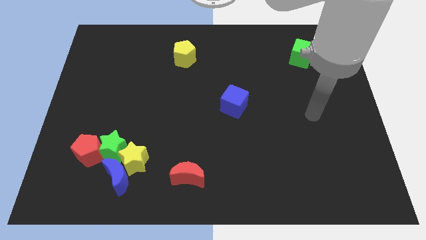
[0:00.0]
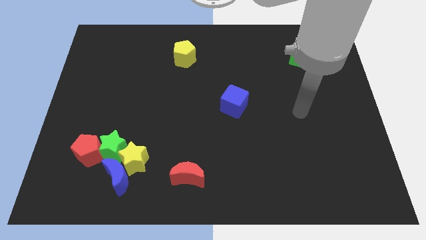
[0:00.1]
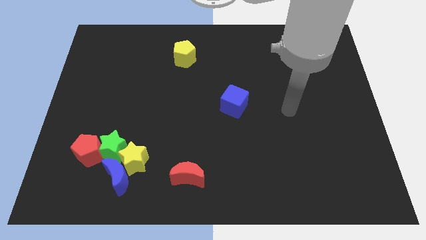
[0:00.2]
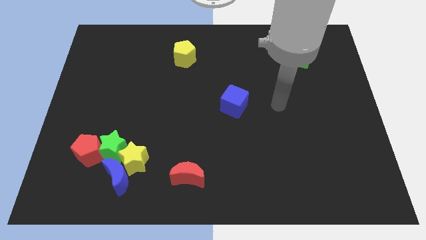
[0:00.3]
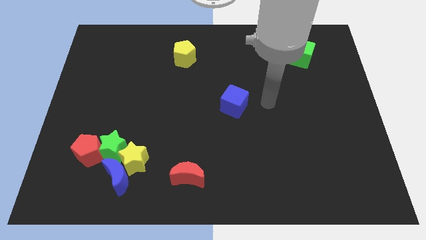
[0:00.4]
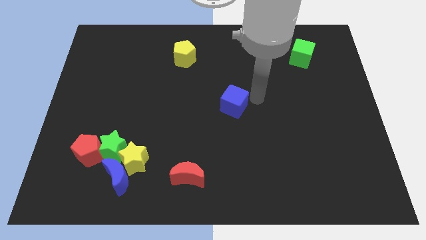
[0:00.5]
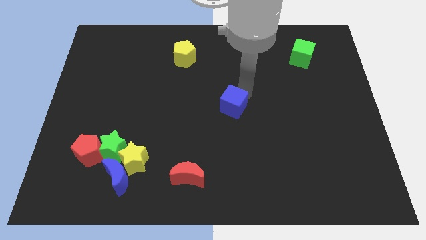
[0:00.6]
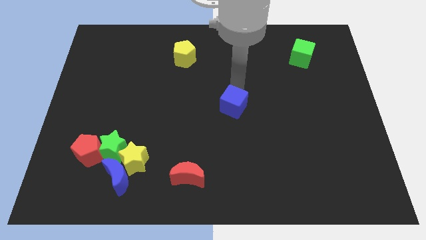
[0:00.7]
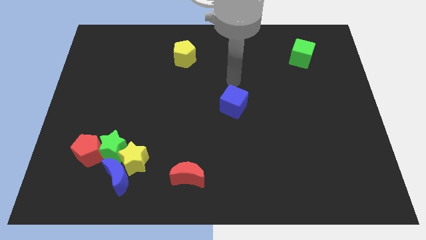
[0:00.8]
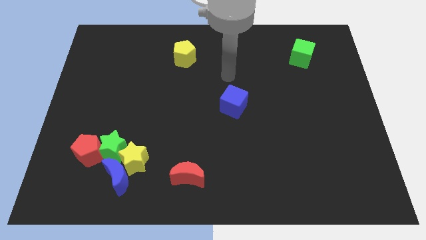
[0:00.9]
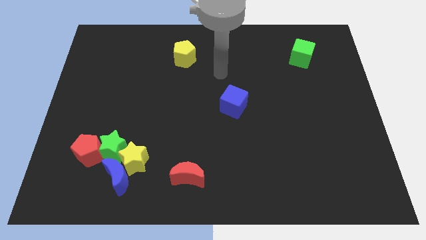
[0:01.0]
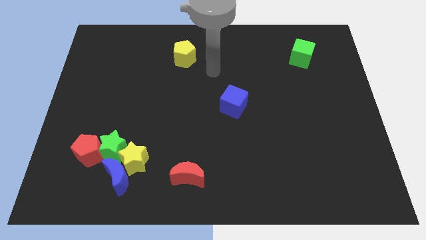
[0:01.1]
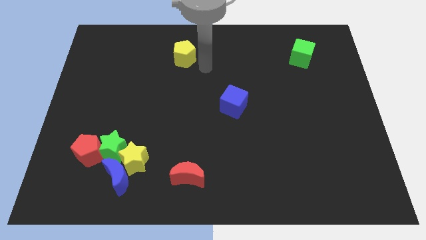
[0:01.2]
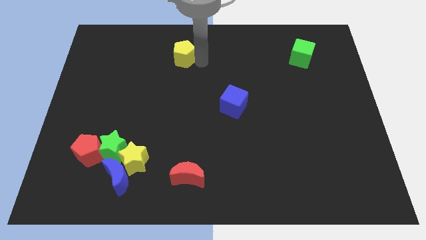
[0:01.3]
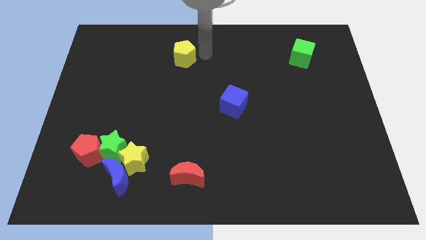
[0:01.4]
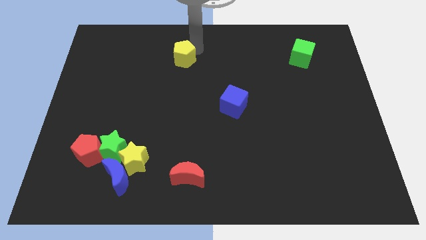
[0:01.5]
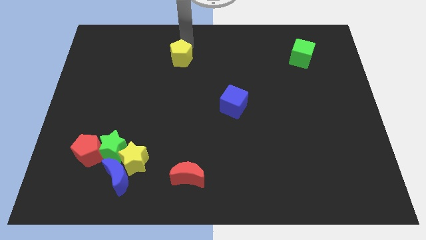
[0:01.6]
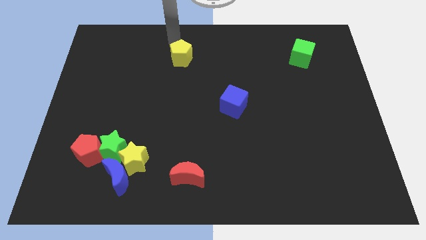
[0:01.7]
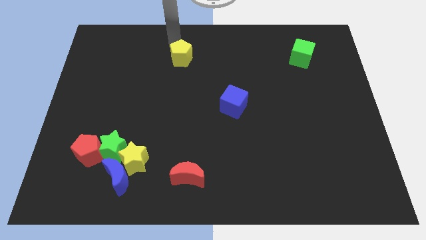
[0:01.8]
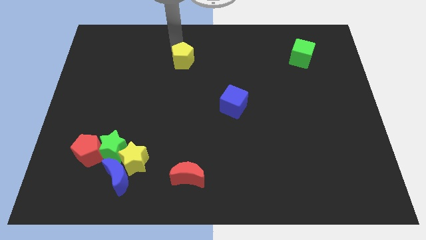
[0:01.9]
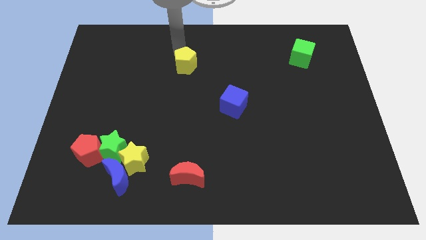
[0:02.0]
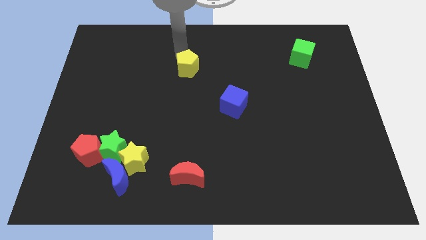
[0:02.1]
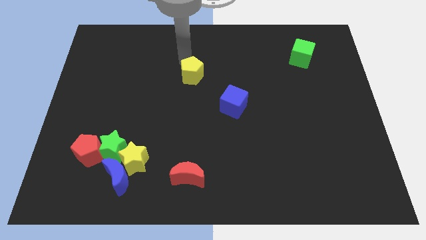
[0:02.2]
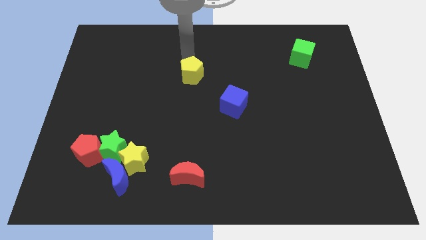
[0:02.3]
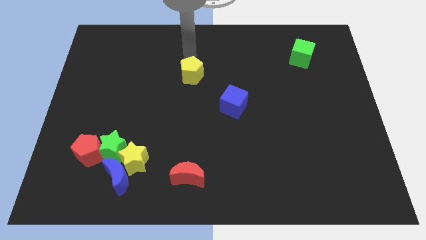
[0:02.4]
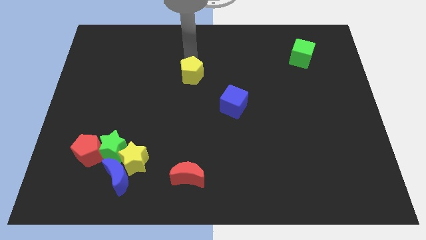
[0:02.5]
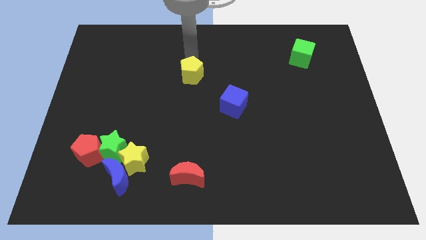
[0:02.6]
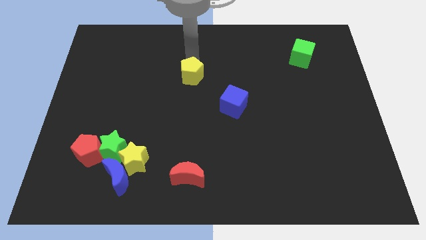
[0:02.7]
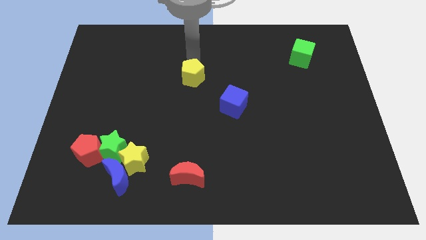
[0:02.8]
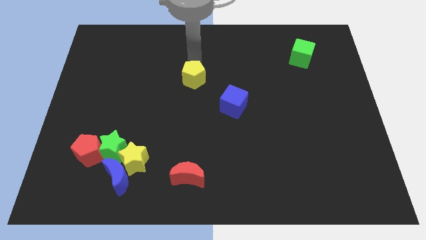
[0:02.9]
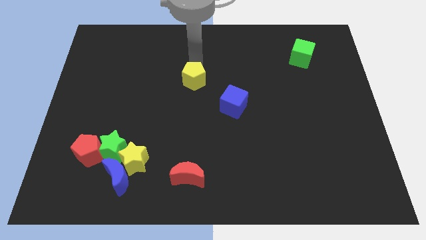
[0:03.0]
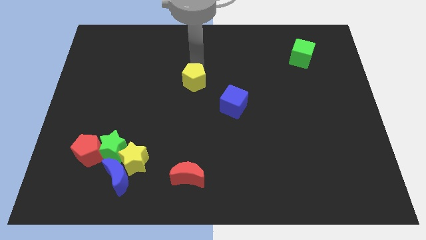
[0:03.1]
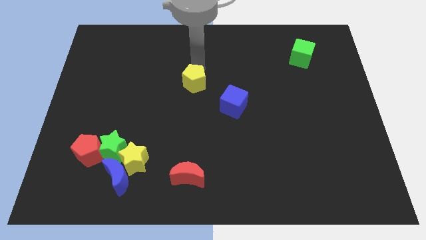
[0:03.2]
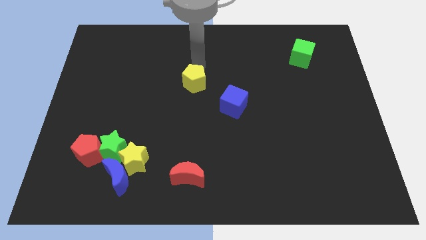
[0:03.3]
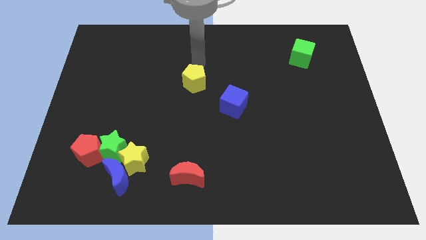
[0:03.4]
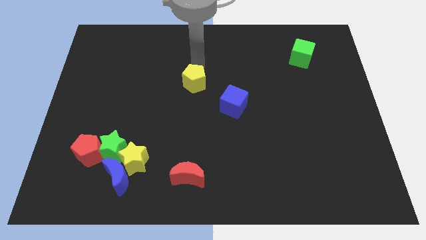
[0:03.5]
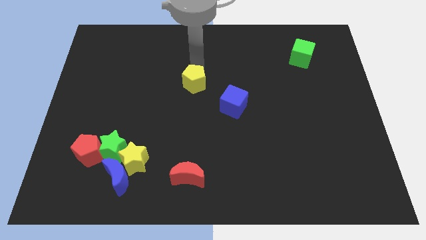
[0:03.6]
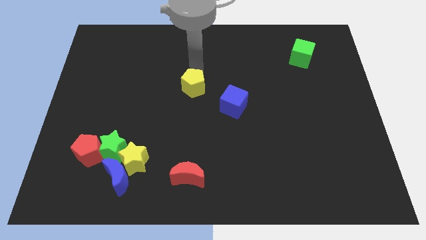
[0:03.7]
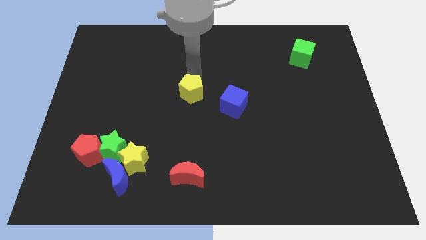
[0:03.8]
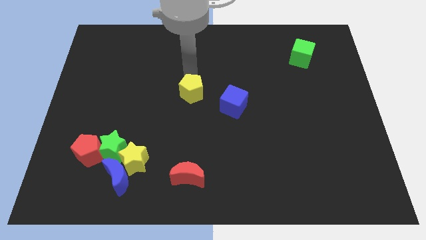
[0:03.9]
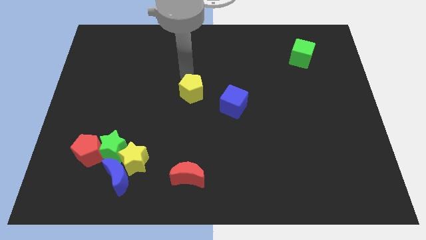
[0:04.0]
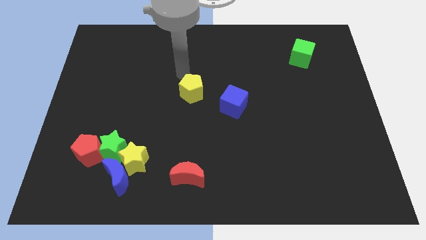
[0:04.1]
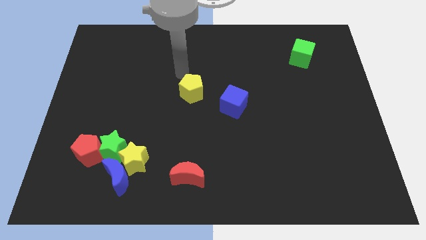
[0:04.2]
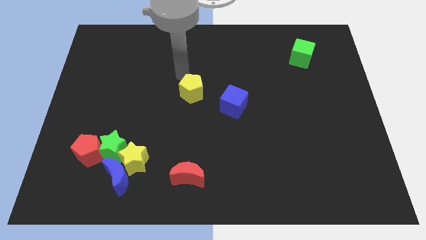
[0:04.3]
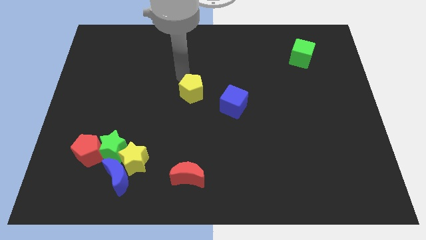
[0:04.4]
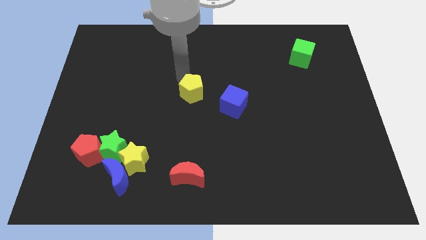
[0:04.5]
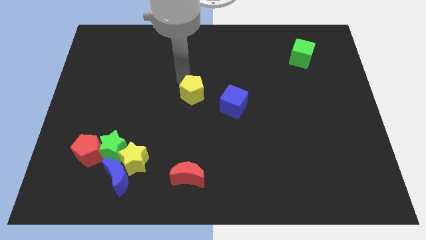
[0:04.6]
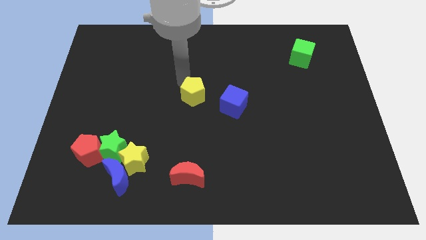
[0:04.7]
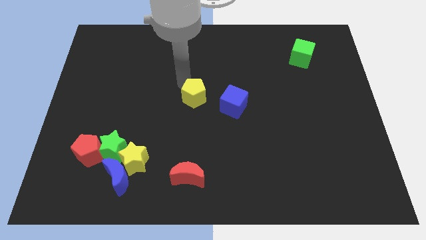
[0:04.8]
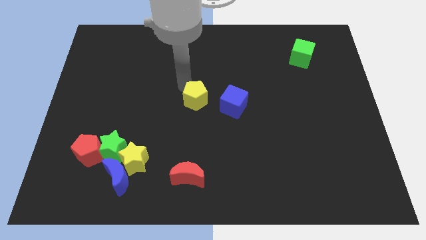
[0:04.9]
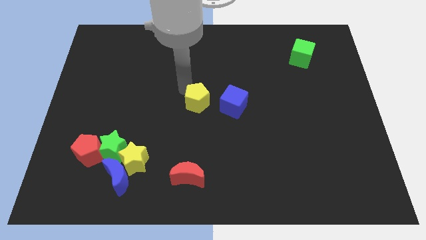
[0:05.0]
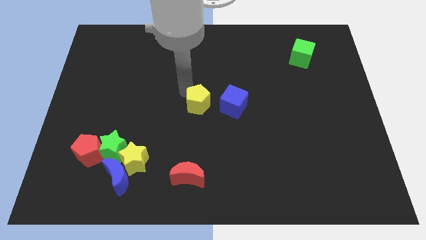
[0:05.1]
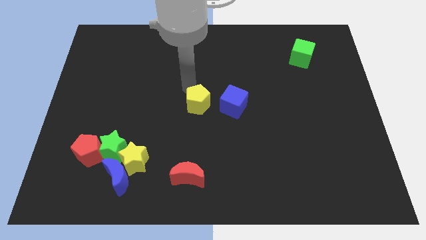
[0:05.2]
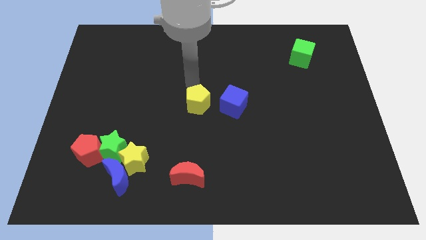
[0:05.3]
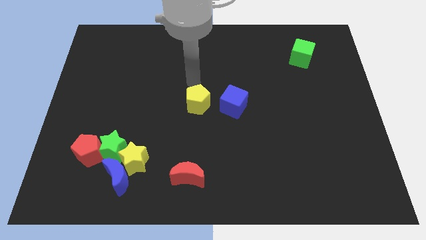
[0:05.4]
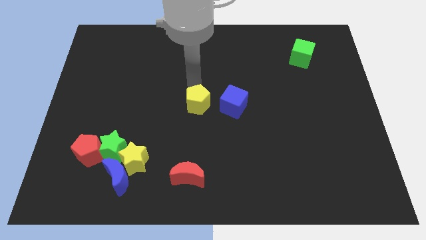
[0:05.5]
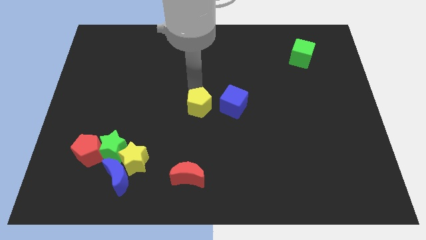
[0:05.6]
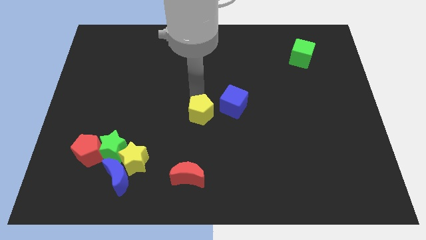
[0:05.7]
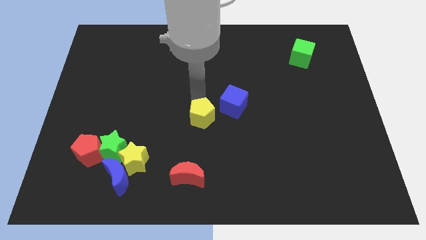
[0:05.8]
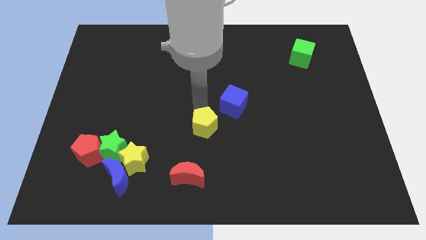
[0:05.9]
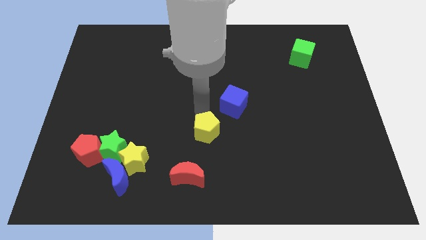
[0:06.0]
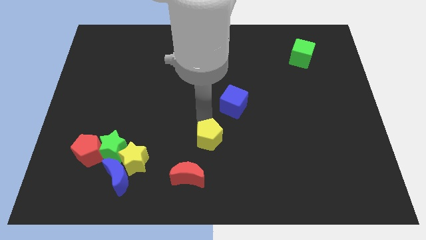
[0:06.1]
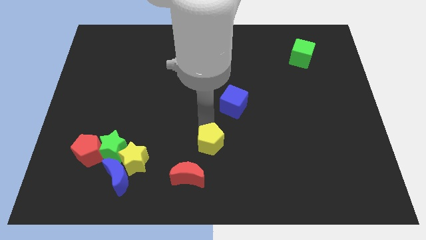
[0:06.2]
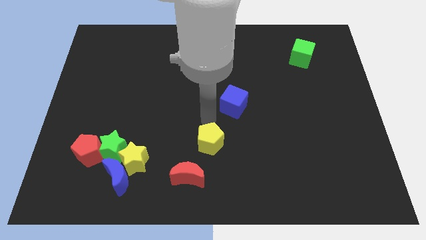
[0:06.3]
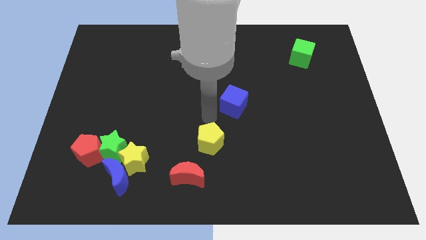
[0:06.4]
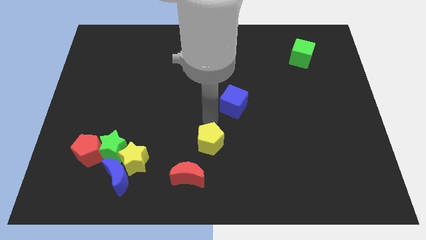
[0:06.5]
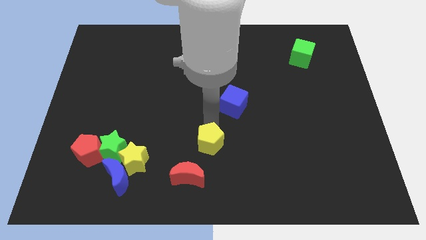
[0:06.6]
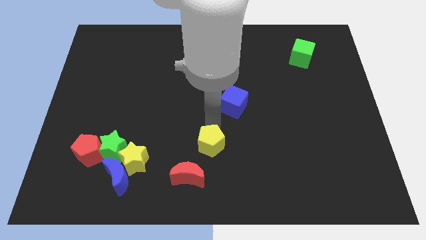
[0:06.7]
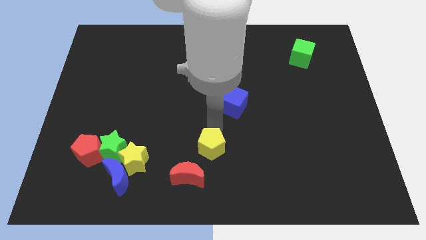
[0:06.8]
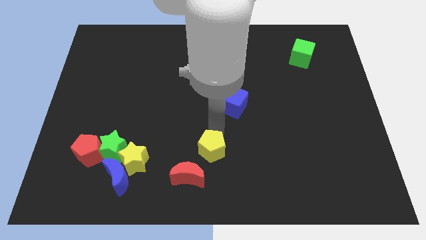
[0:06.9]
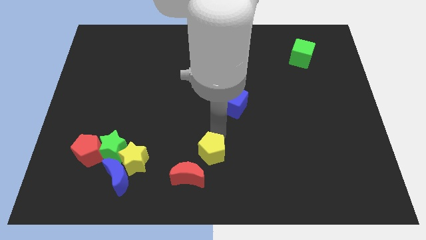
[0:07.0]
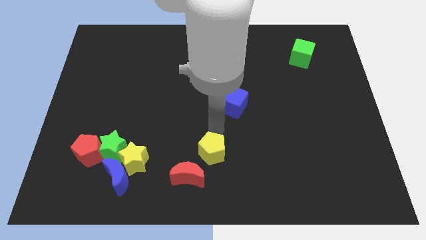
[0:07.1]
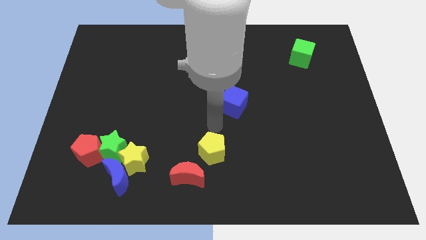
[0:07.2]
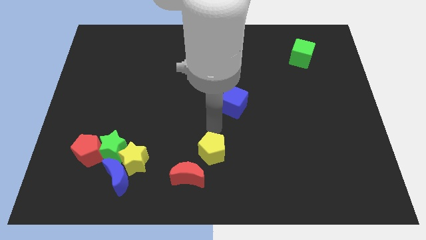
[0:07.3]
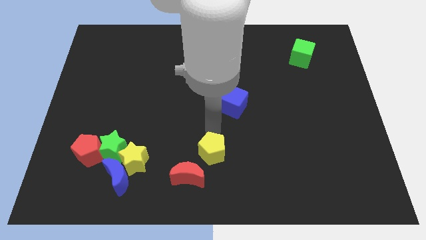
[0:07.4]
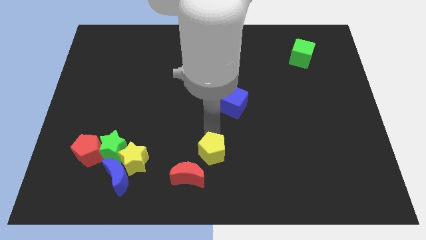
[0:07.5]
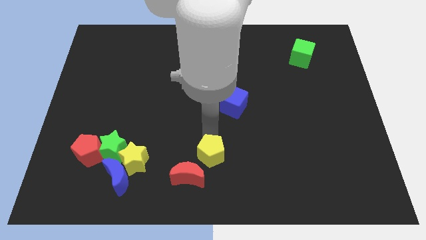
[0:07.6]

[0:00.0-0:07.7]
move the yellow pentagon to the bottom side
